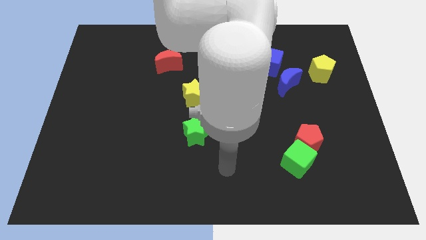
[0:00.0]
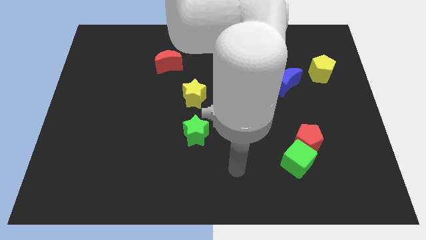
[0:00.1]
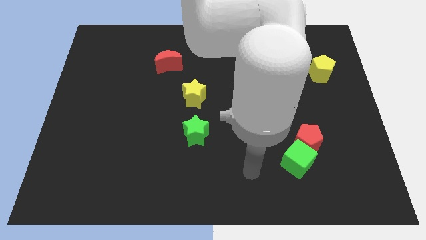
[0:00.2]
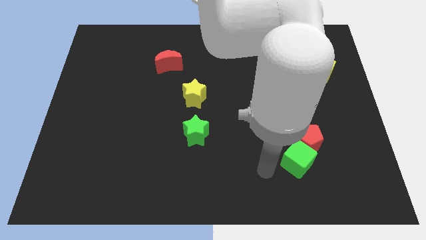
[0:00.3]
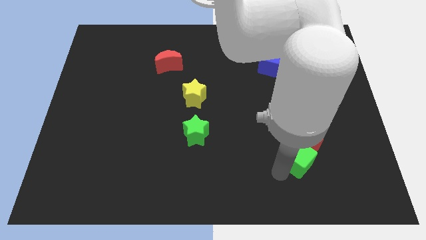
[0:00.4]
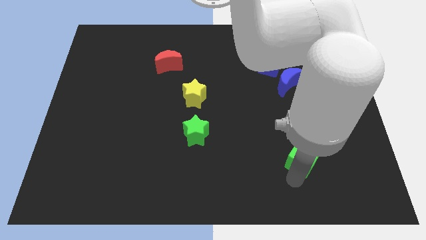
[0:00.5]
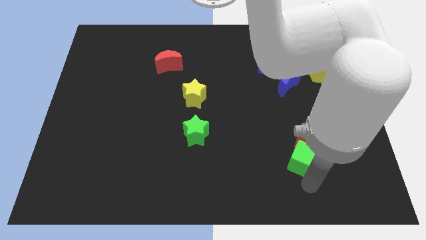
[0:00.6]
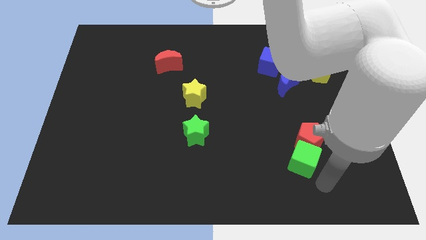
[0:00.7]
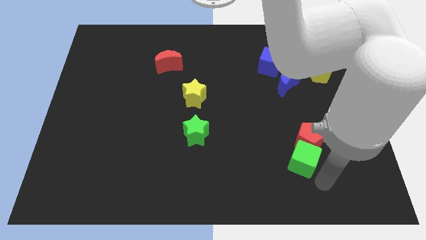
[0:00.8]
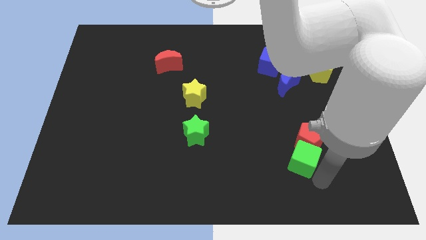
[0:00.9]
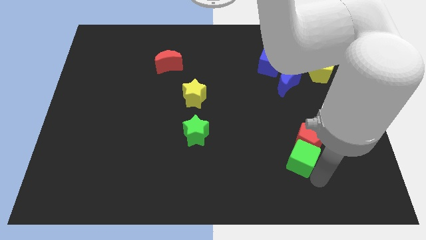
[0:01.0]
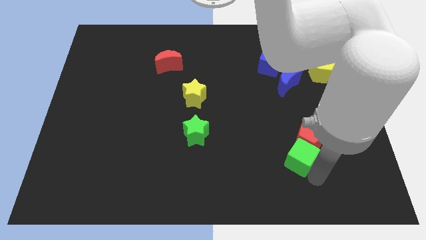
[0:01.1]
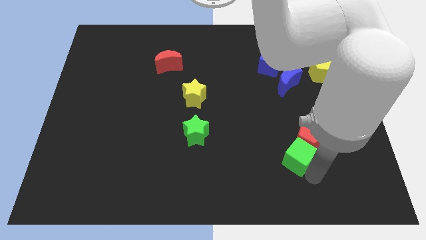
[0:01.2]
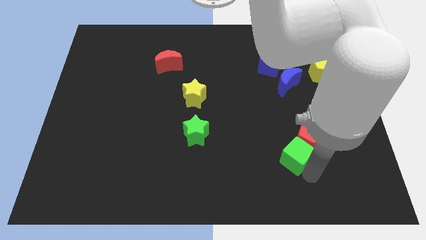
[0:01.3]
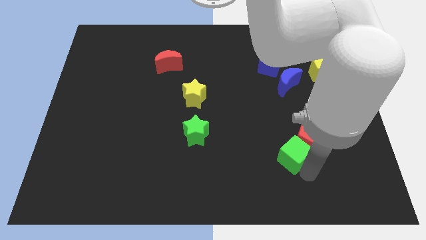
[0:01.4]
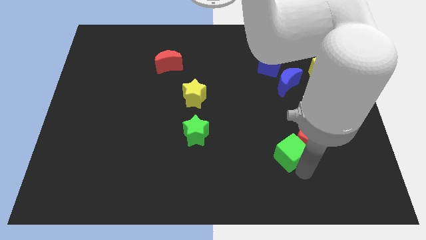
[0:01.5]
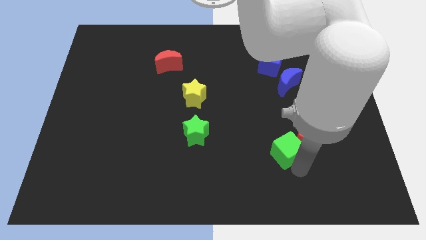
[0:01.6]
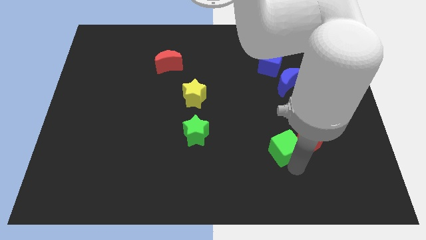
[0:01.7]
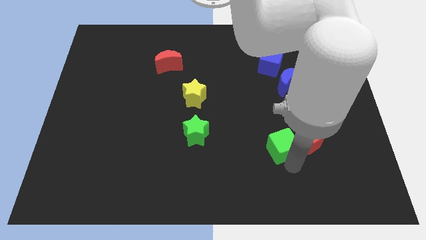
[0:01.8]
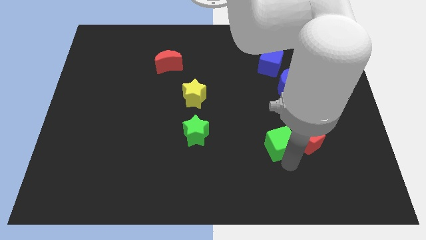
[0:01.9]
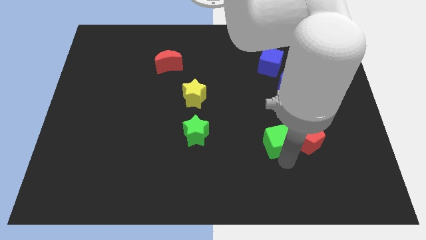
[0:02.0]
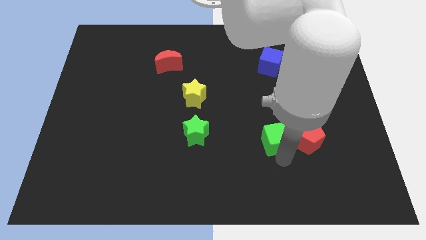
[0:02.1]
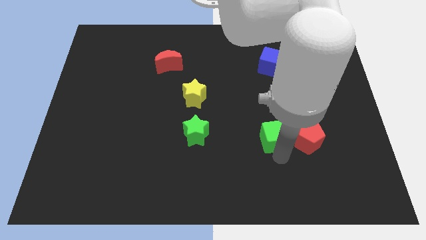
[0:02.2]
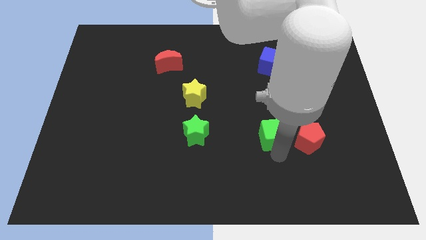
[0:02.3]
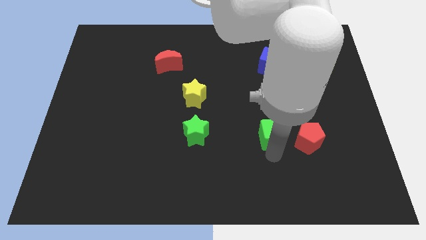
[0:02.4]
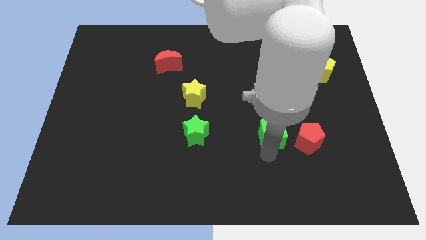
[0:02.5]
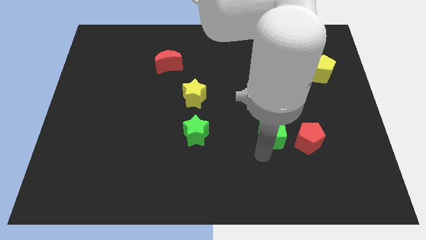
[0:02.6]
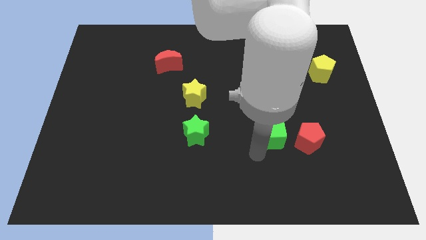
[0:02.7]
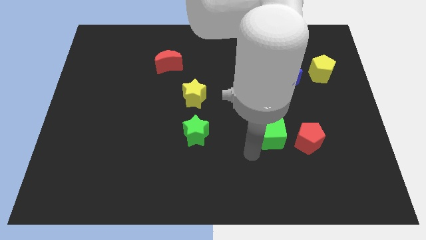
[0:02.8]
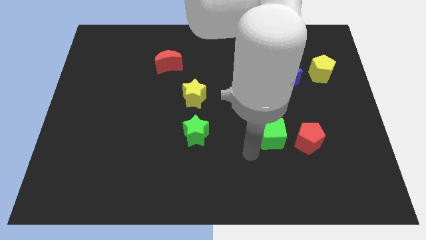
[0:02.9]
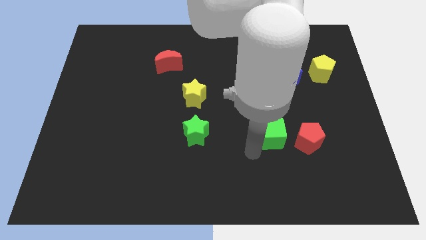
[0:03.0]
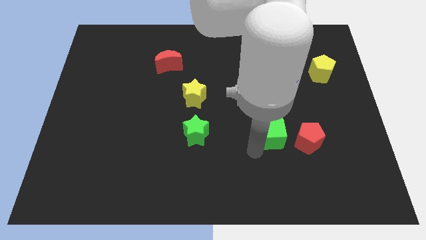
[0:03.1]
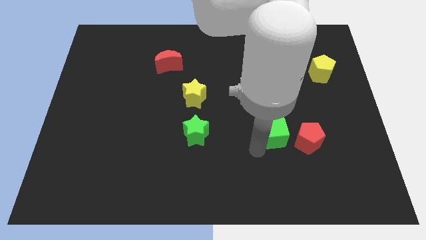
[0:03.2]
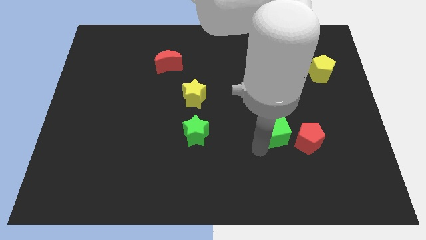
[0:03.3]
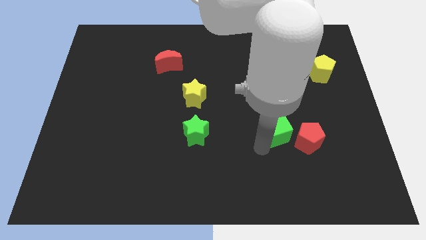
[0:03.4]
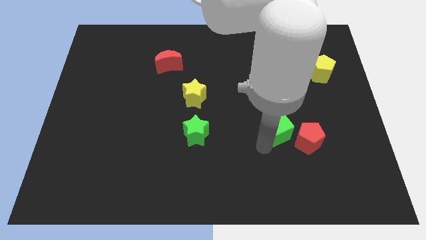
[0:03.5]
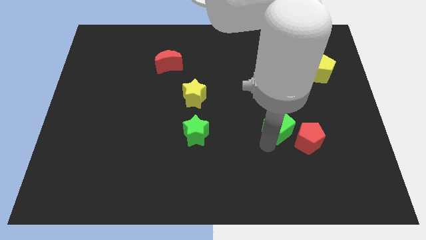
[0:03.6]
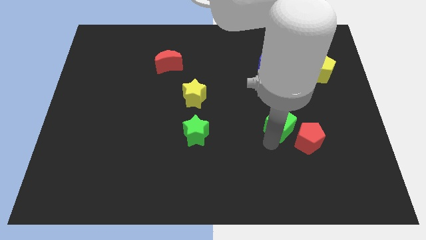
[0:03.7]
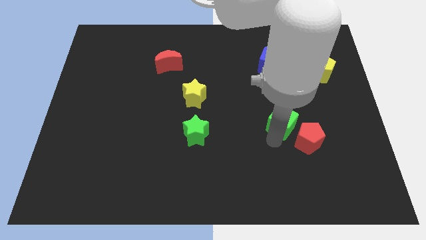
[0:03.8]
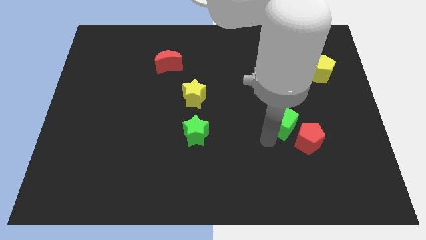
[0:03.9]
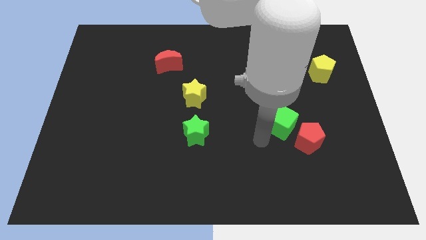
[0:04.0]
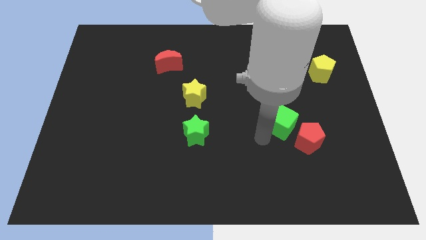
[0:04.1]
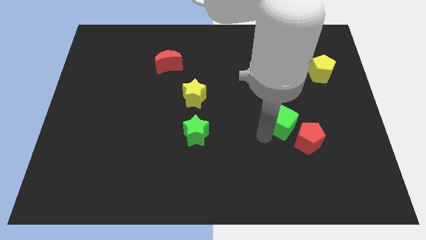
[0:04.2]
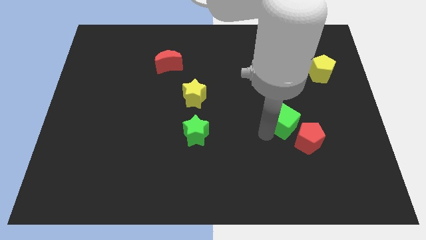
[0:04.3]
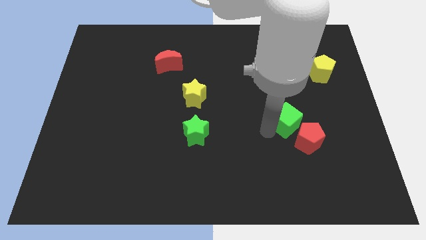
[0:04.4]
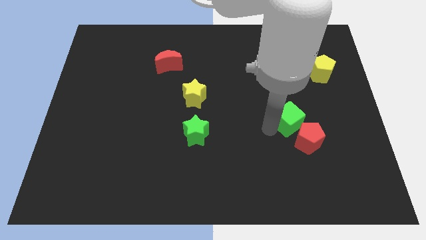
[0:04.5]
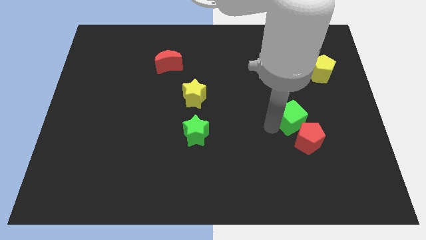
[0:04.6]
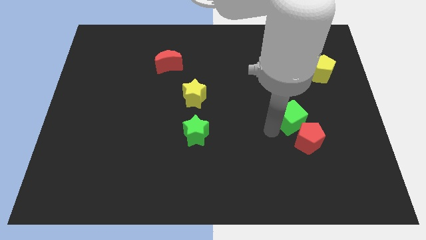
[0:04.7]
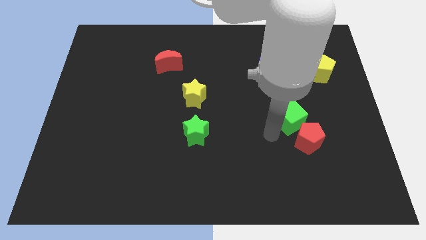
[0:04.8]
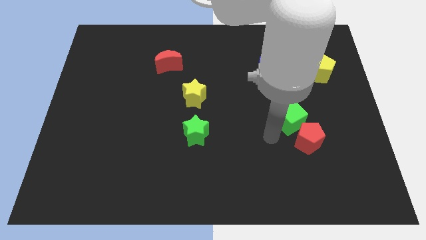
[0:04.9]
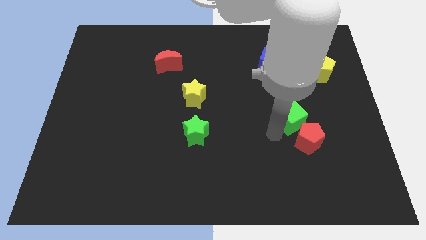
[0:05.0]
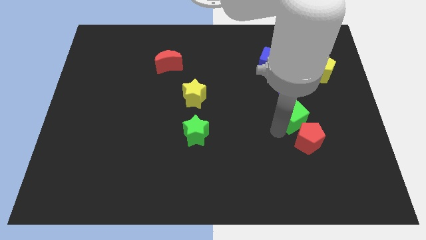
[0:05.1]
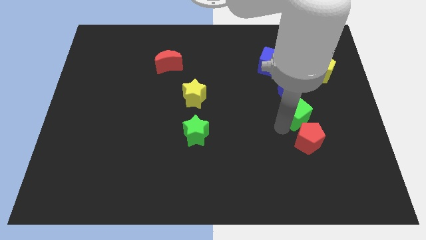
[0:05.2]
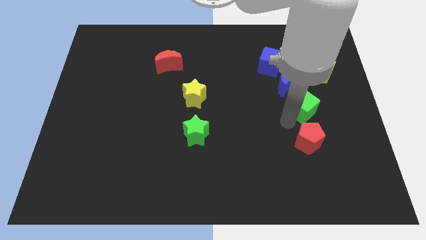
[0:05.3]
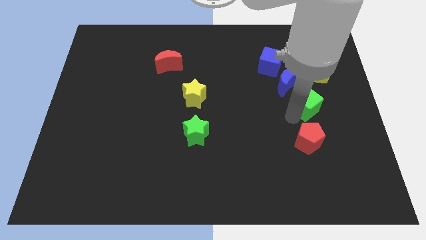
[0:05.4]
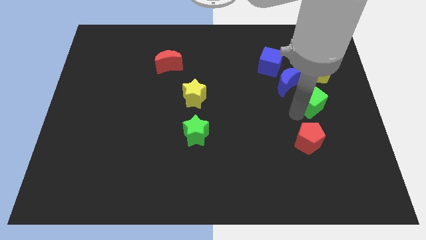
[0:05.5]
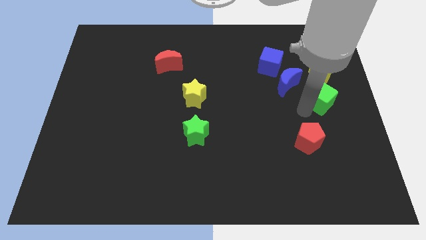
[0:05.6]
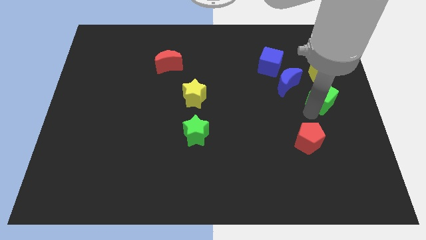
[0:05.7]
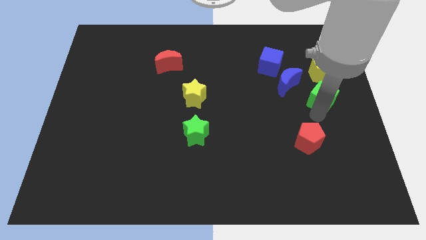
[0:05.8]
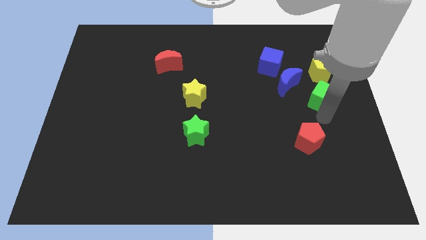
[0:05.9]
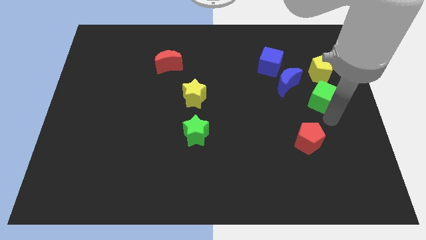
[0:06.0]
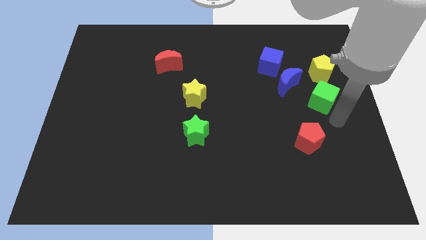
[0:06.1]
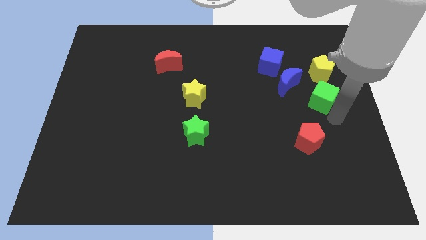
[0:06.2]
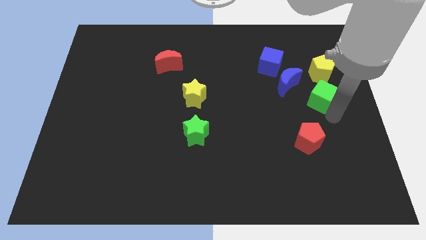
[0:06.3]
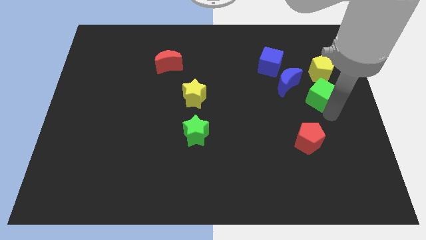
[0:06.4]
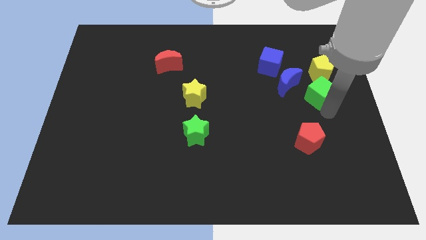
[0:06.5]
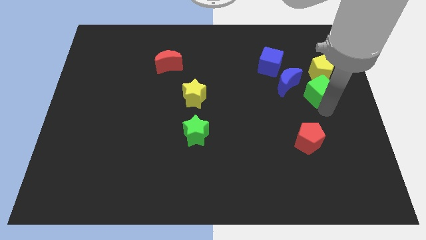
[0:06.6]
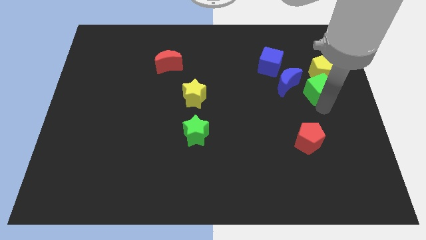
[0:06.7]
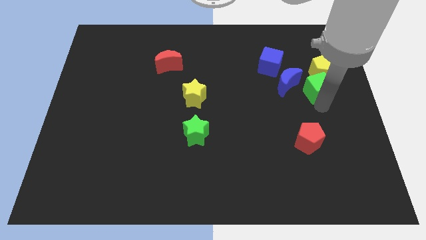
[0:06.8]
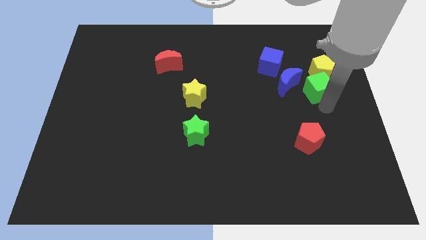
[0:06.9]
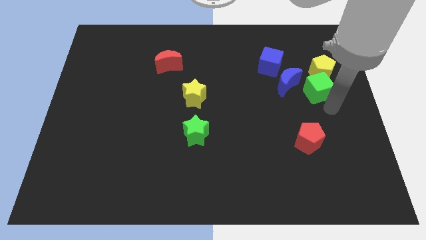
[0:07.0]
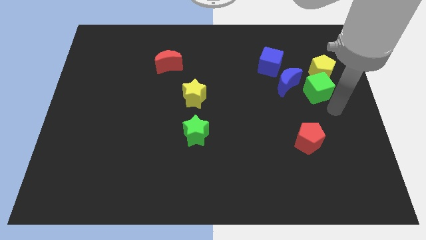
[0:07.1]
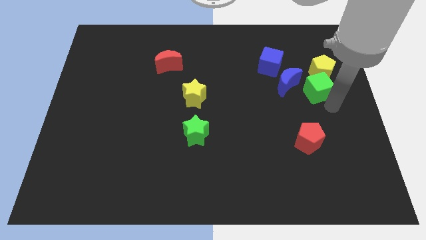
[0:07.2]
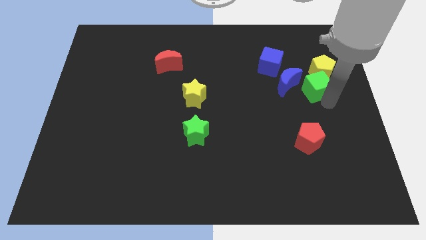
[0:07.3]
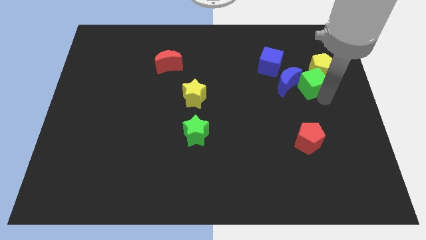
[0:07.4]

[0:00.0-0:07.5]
move the green cube to the top right of the blue moon

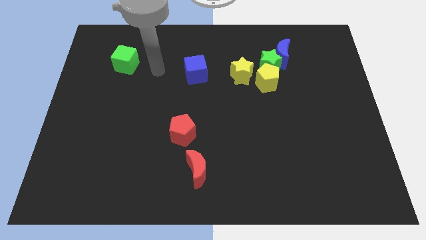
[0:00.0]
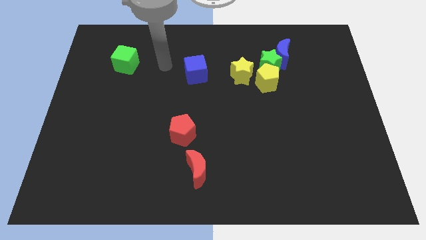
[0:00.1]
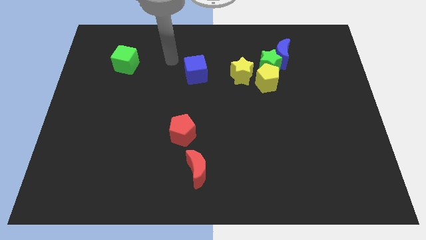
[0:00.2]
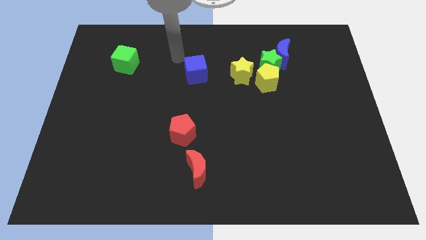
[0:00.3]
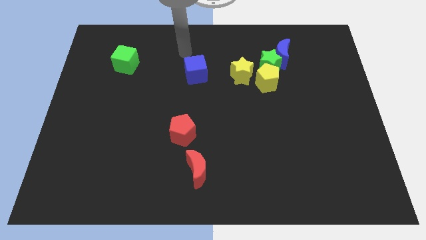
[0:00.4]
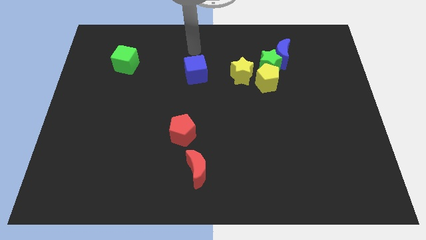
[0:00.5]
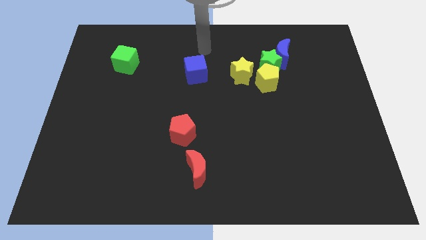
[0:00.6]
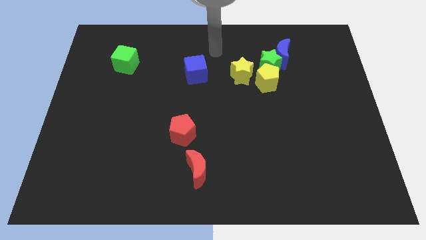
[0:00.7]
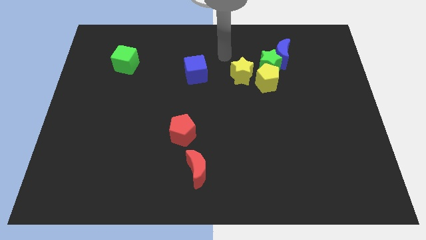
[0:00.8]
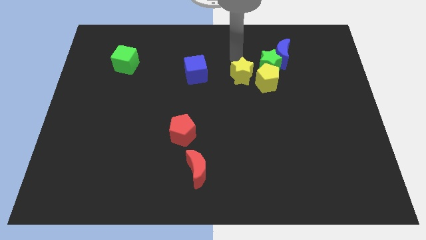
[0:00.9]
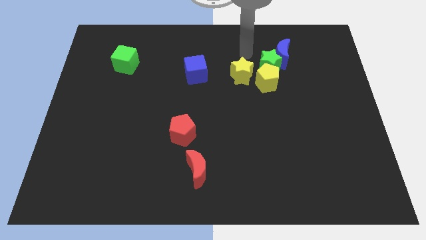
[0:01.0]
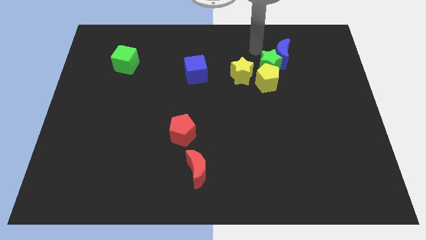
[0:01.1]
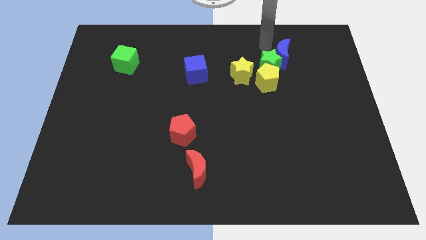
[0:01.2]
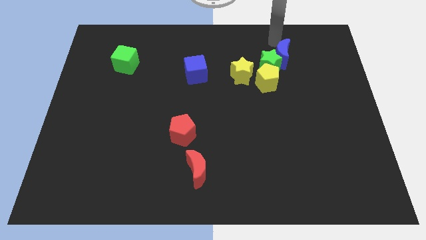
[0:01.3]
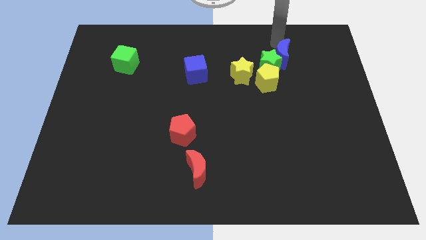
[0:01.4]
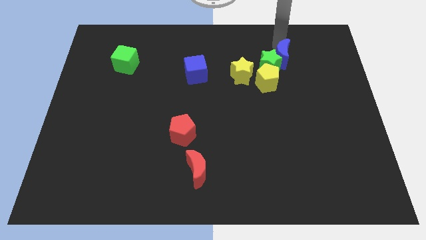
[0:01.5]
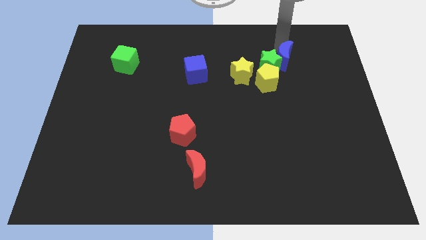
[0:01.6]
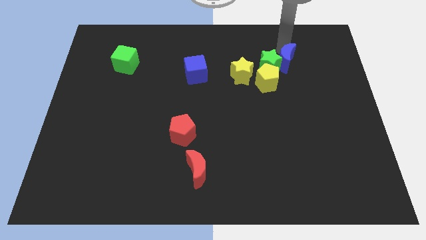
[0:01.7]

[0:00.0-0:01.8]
move the blue moon diagonally down and to the right of the green star
